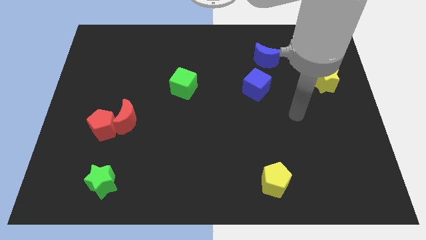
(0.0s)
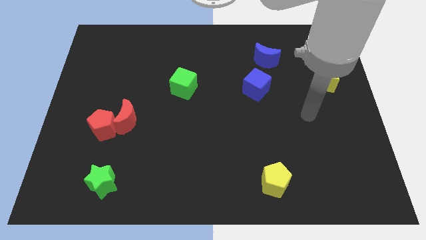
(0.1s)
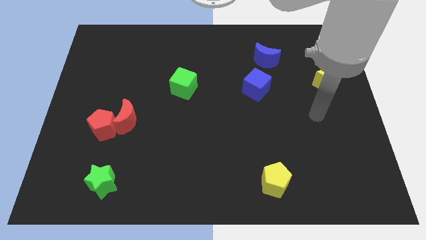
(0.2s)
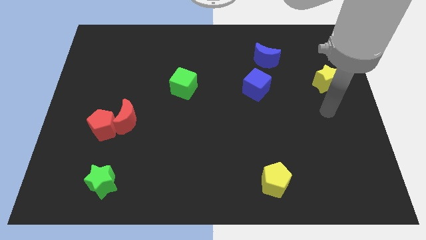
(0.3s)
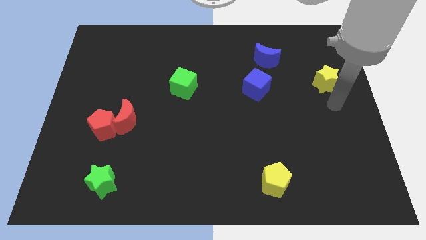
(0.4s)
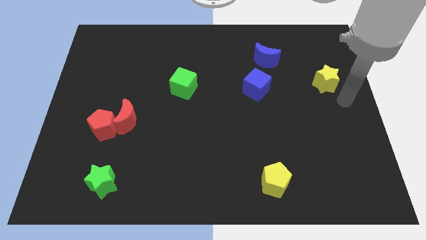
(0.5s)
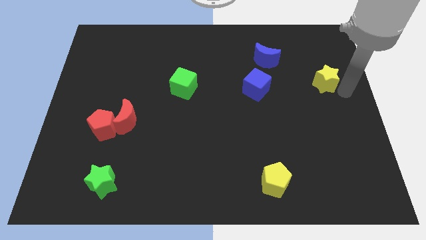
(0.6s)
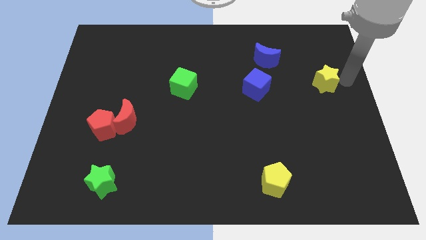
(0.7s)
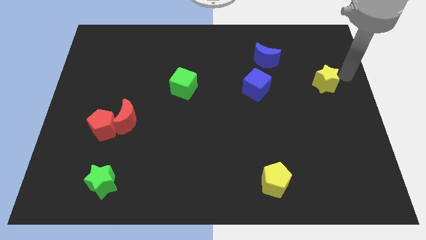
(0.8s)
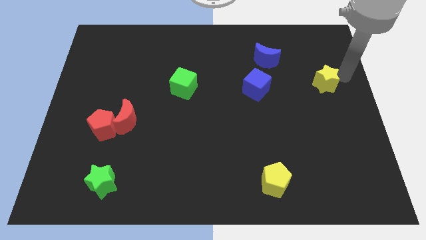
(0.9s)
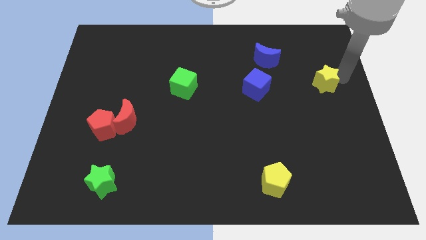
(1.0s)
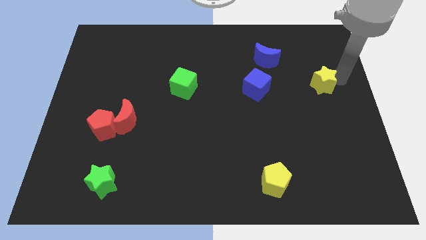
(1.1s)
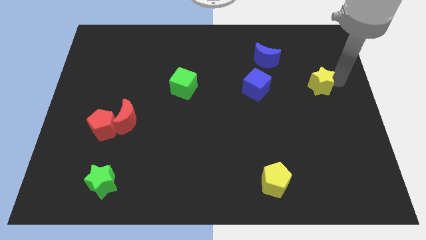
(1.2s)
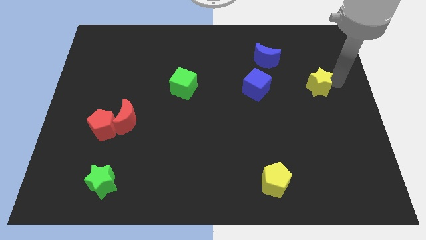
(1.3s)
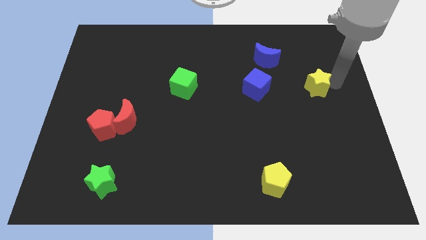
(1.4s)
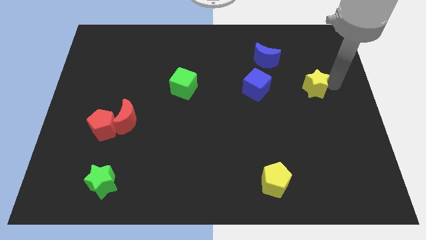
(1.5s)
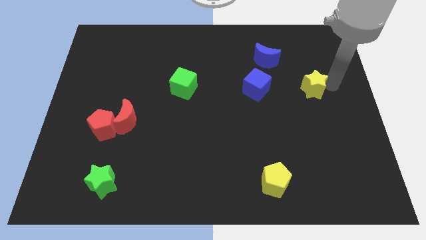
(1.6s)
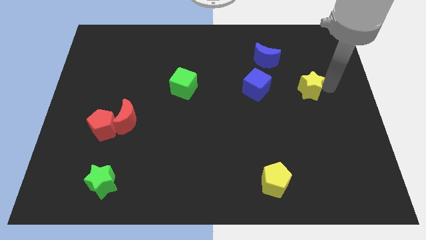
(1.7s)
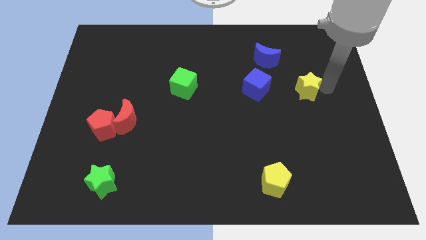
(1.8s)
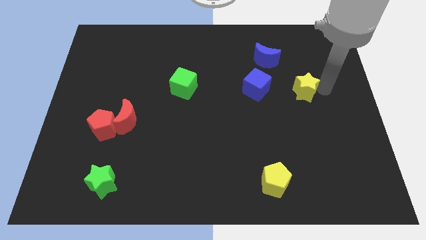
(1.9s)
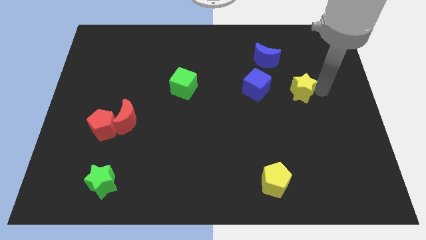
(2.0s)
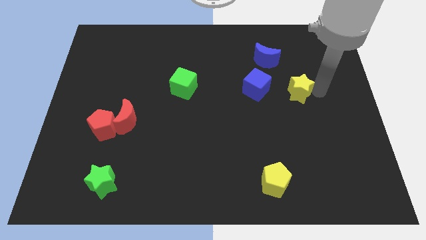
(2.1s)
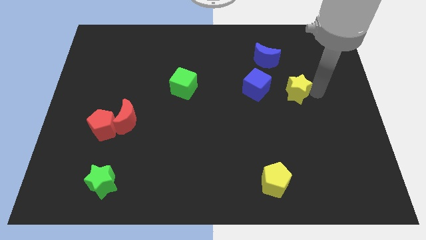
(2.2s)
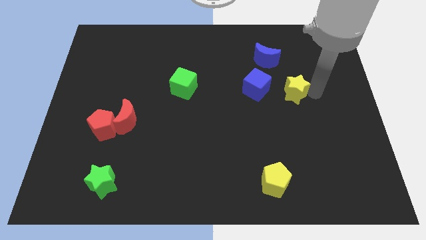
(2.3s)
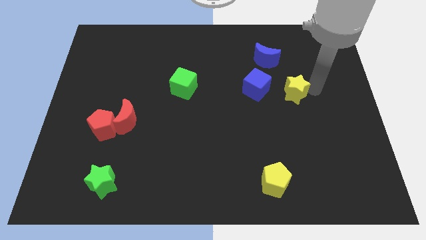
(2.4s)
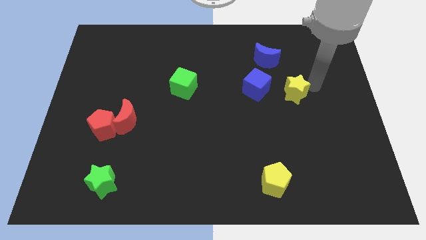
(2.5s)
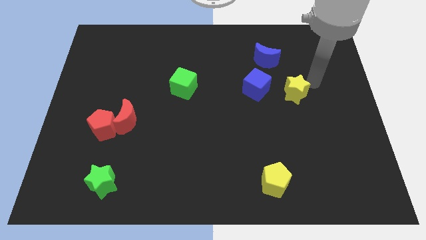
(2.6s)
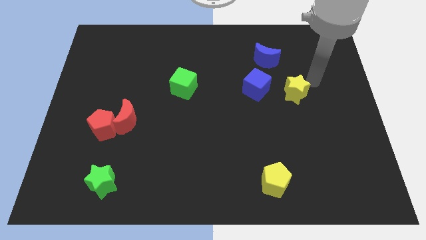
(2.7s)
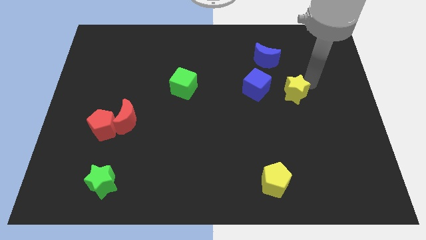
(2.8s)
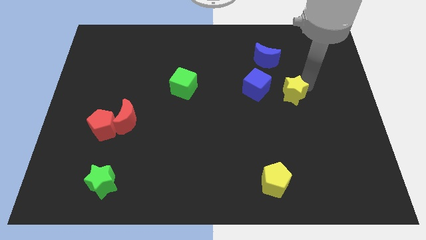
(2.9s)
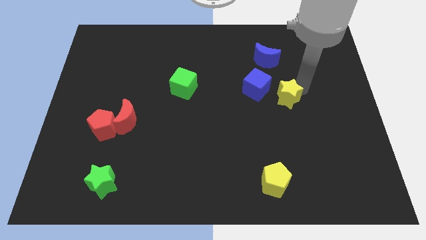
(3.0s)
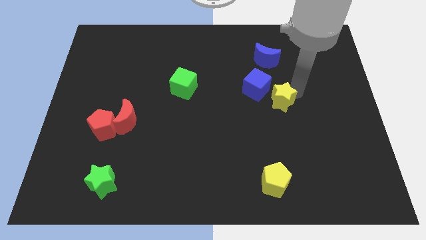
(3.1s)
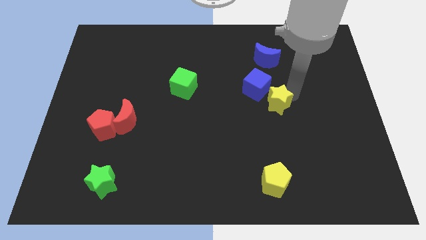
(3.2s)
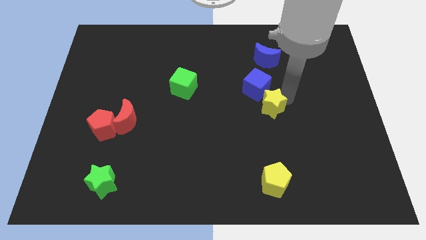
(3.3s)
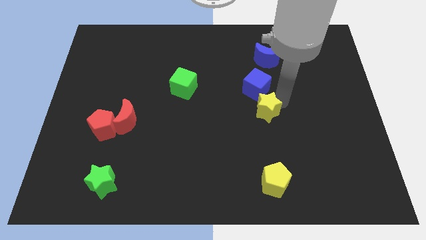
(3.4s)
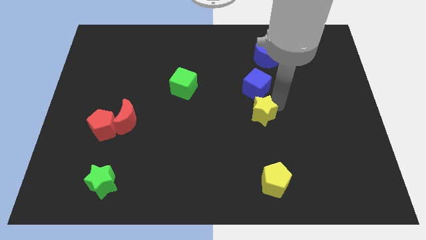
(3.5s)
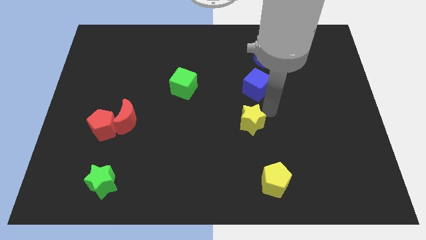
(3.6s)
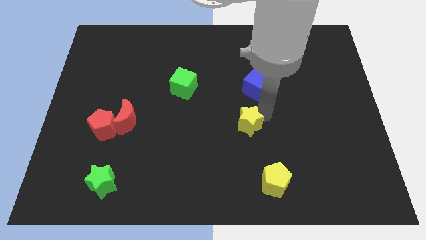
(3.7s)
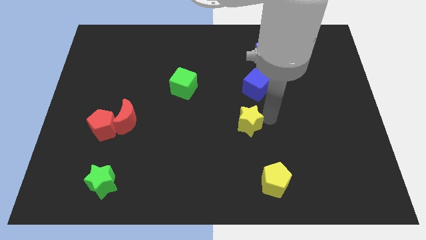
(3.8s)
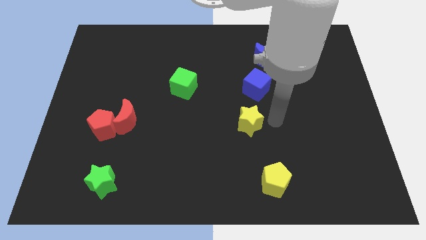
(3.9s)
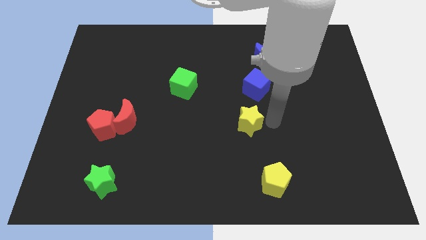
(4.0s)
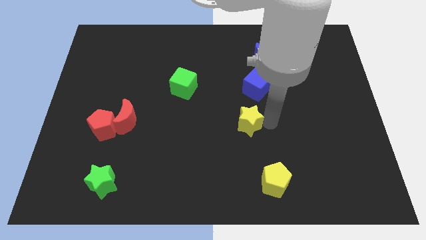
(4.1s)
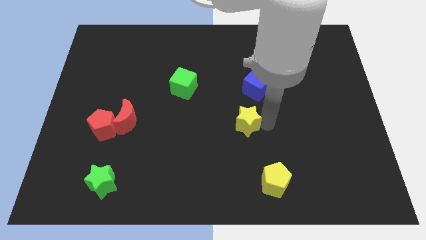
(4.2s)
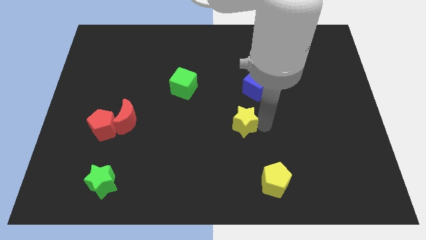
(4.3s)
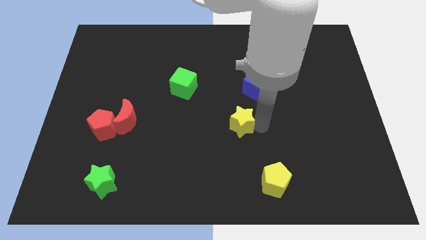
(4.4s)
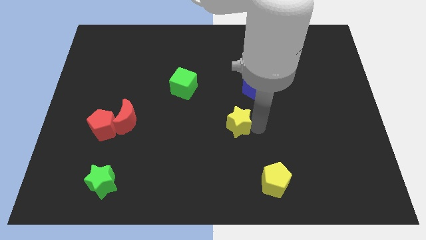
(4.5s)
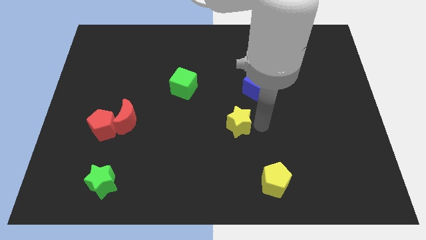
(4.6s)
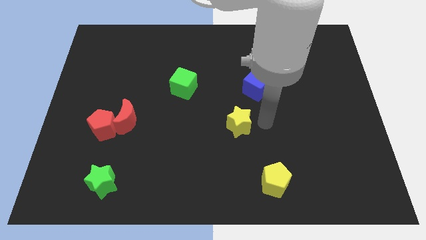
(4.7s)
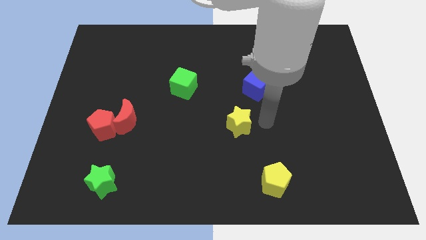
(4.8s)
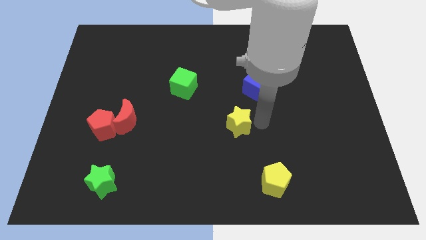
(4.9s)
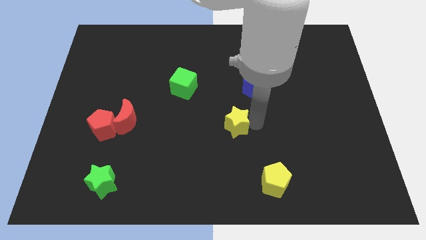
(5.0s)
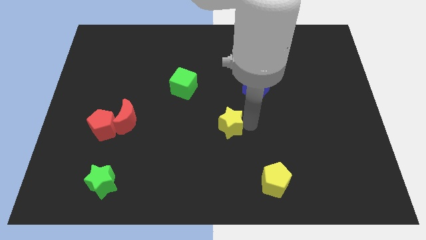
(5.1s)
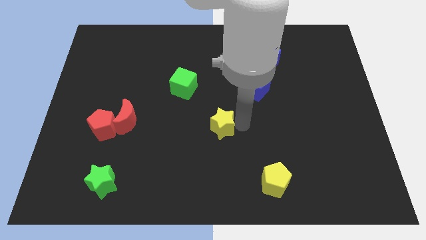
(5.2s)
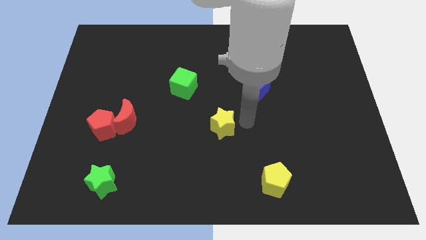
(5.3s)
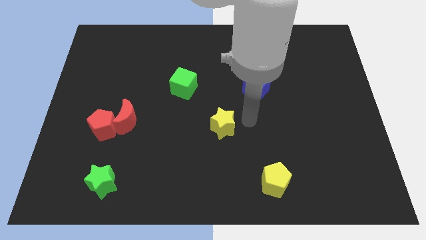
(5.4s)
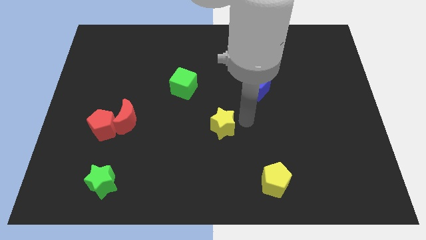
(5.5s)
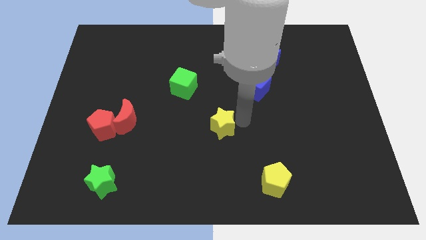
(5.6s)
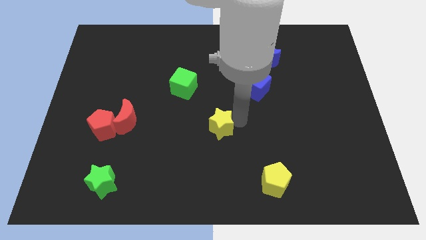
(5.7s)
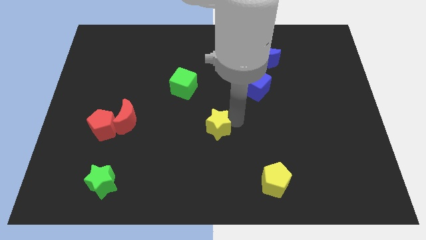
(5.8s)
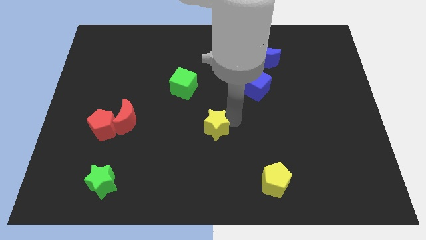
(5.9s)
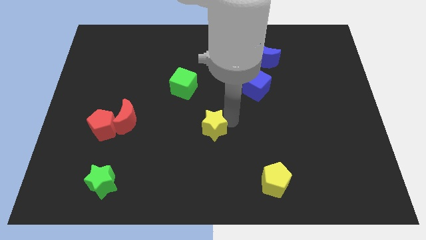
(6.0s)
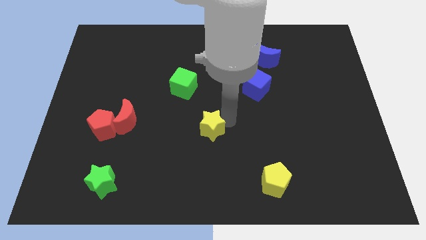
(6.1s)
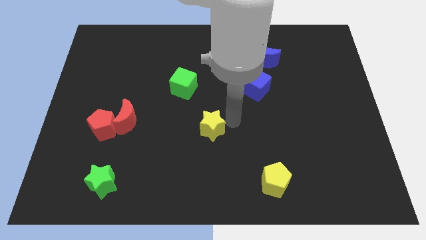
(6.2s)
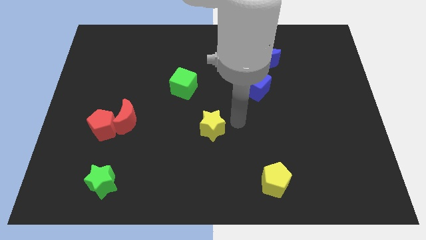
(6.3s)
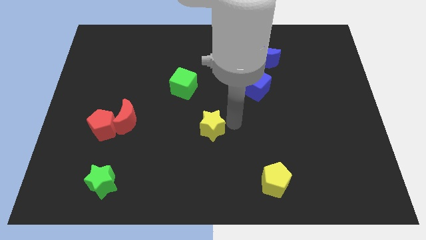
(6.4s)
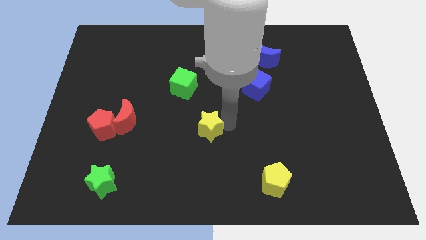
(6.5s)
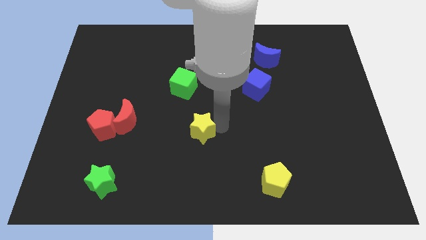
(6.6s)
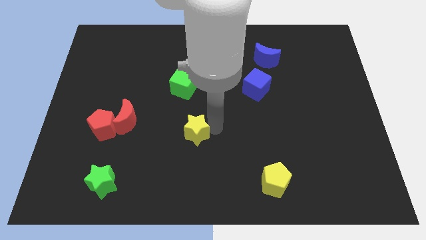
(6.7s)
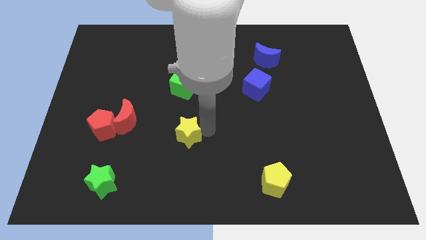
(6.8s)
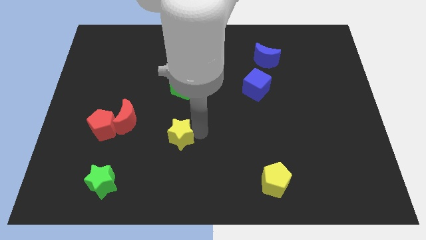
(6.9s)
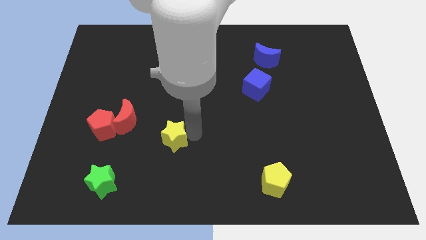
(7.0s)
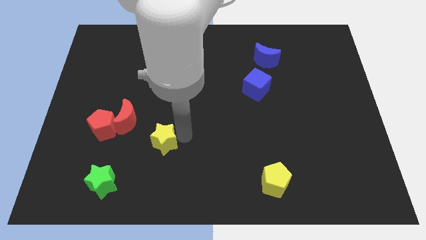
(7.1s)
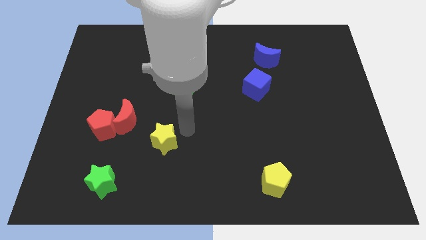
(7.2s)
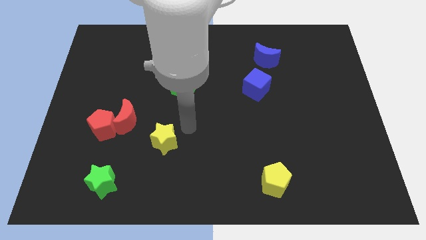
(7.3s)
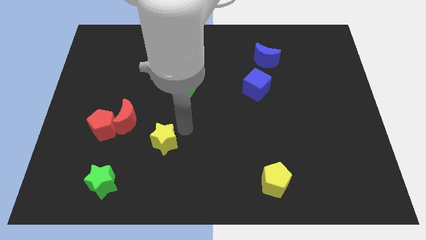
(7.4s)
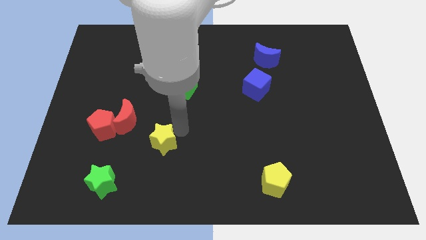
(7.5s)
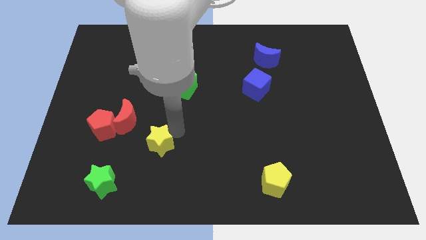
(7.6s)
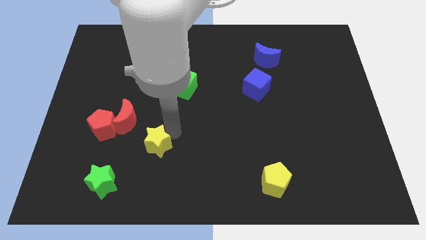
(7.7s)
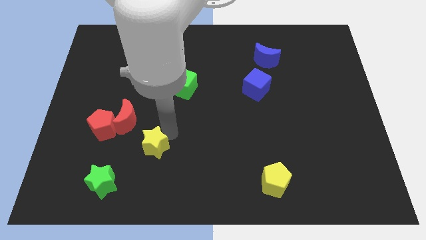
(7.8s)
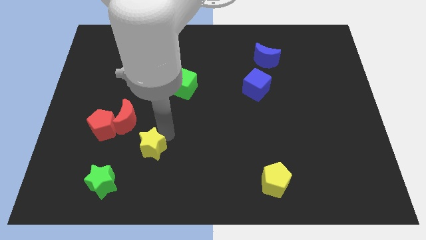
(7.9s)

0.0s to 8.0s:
put the yellow star to the top right of the green star
